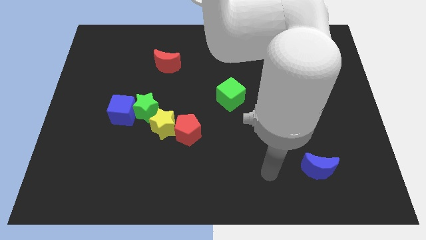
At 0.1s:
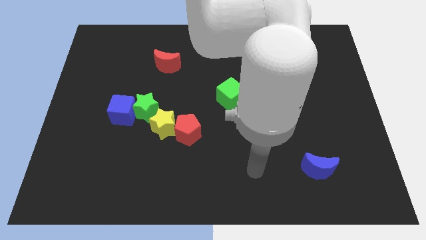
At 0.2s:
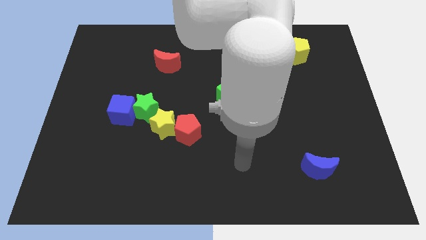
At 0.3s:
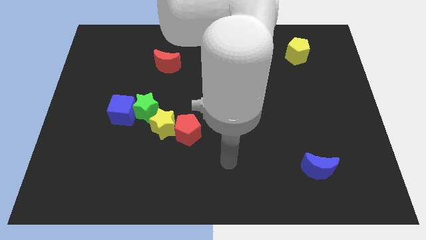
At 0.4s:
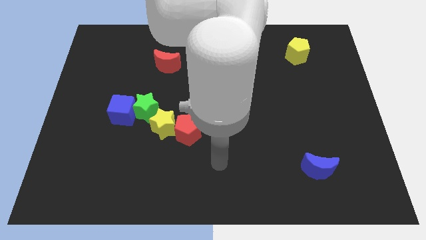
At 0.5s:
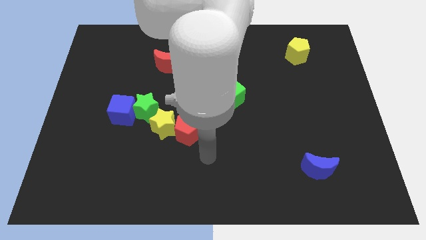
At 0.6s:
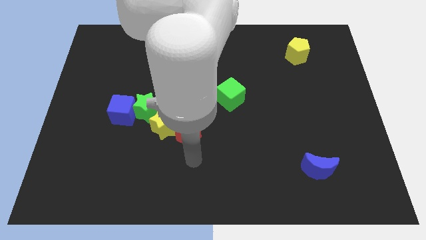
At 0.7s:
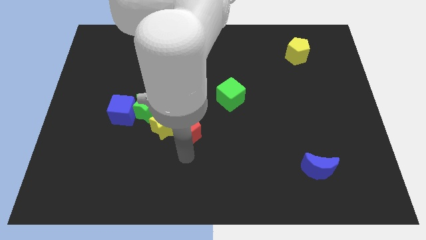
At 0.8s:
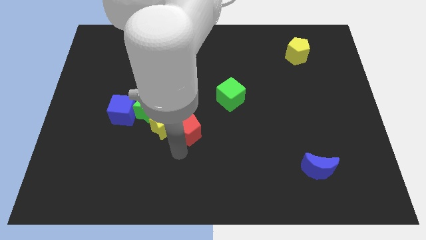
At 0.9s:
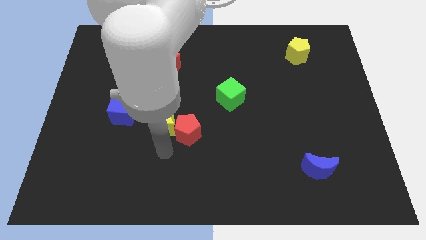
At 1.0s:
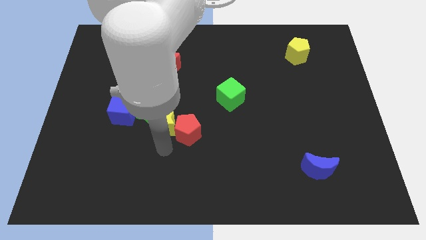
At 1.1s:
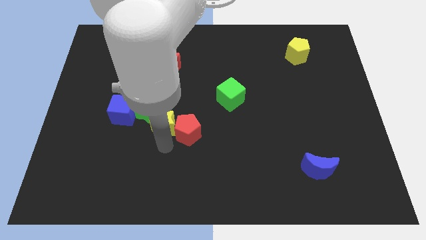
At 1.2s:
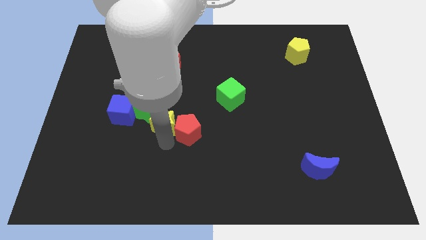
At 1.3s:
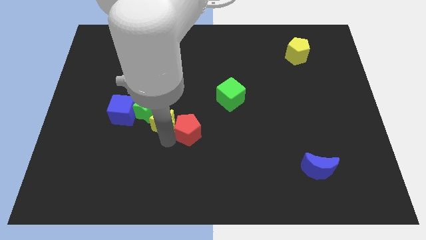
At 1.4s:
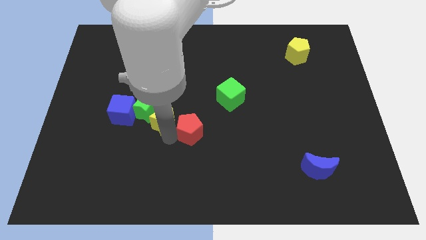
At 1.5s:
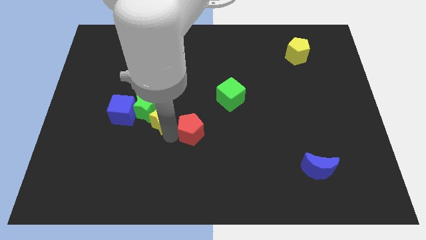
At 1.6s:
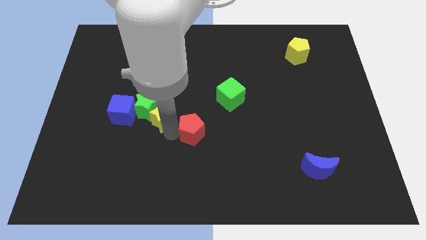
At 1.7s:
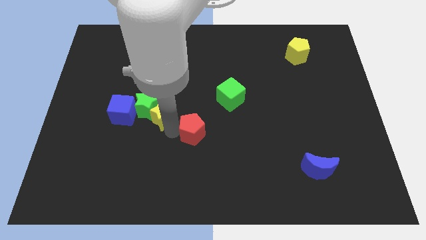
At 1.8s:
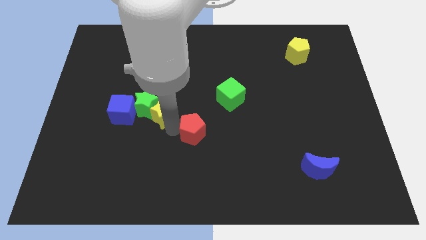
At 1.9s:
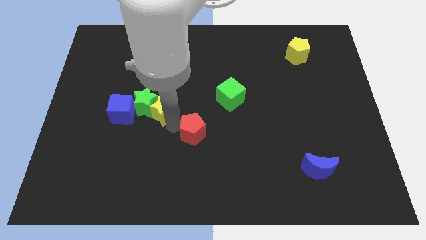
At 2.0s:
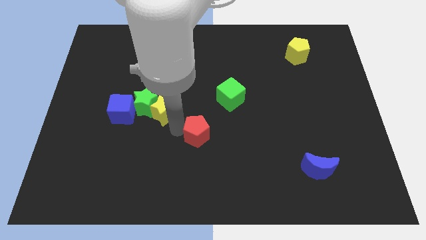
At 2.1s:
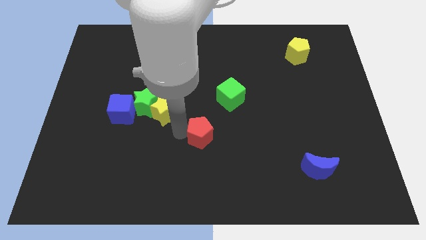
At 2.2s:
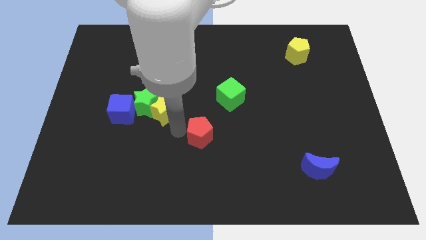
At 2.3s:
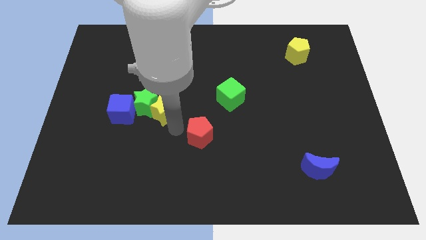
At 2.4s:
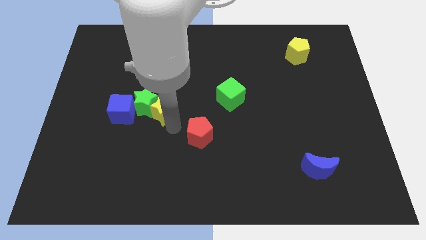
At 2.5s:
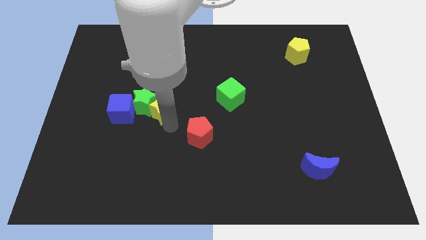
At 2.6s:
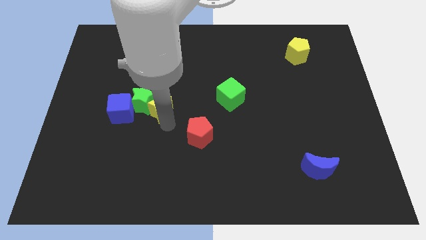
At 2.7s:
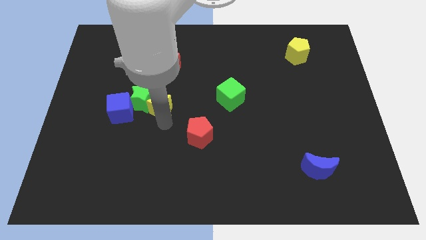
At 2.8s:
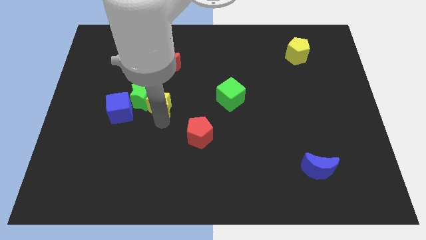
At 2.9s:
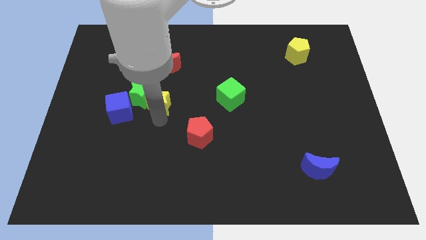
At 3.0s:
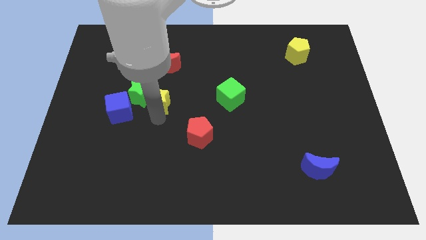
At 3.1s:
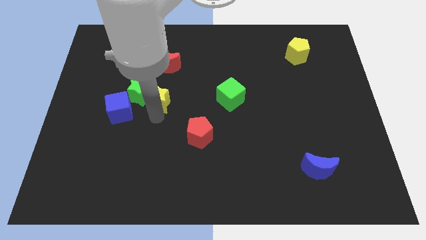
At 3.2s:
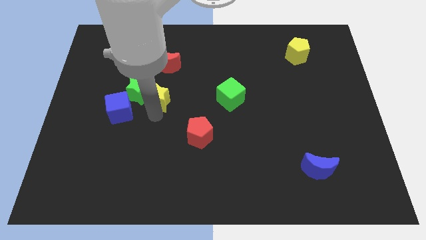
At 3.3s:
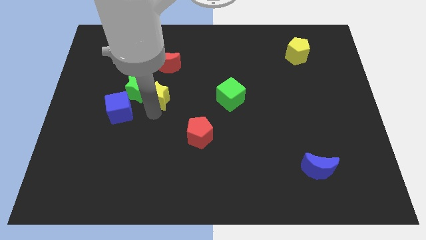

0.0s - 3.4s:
move the yellow star somewhat diagonally up and to the left

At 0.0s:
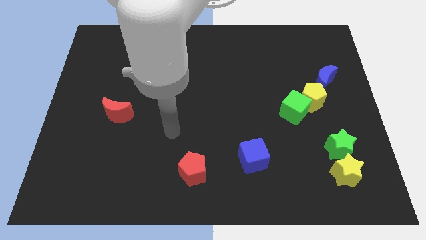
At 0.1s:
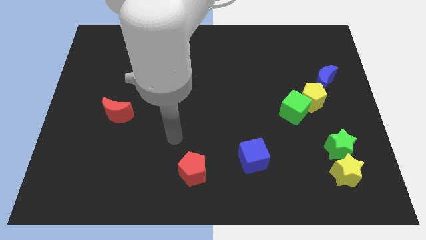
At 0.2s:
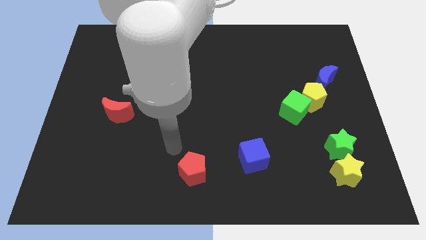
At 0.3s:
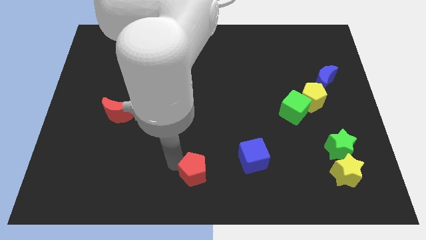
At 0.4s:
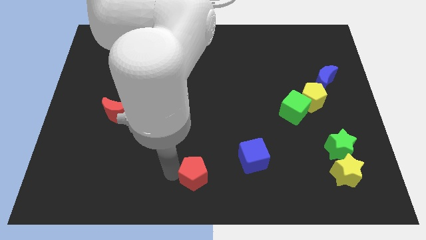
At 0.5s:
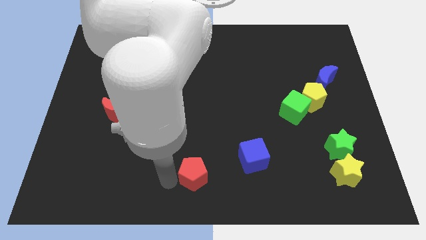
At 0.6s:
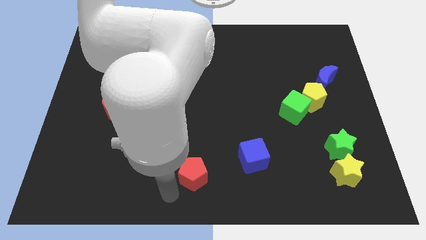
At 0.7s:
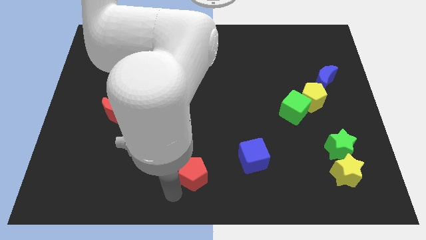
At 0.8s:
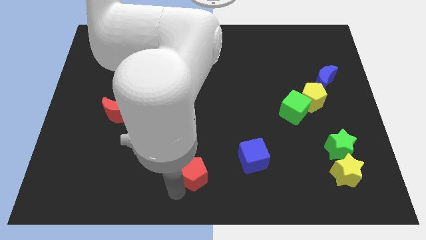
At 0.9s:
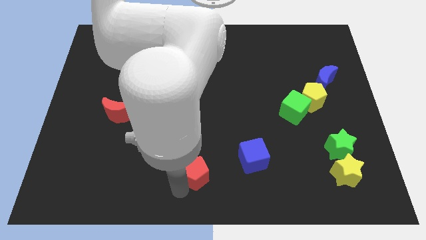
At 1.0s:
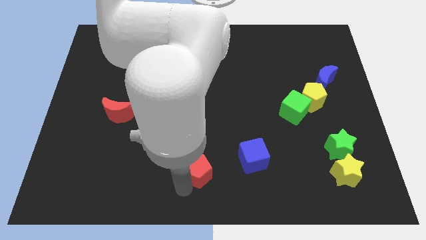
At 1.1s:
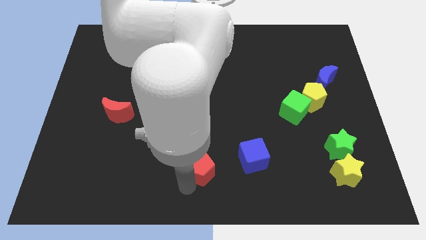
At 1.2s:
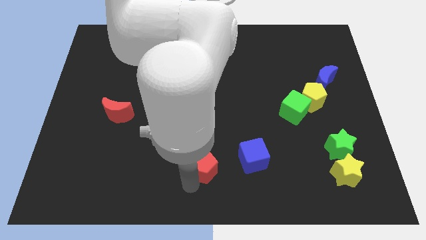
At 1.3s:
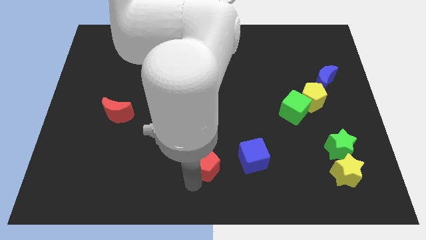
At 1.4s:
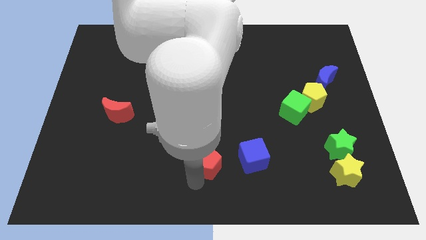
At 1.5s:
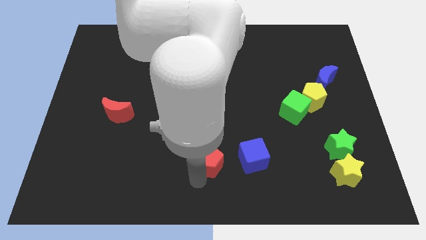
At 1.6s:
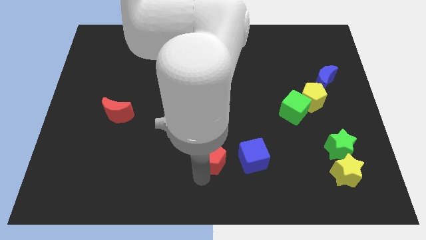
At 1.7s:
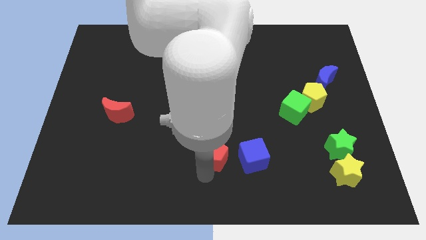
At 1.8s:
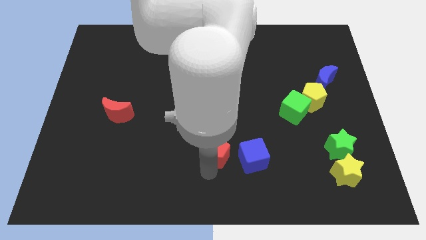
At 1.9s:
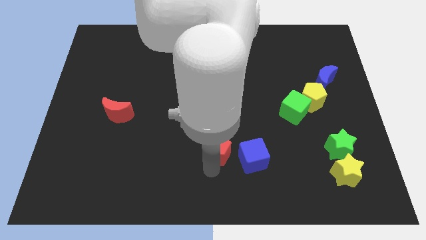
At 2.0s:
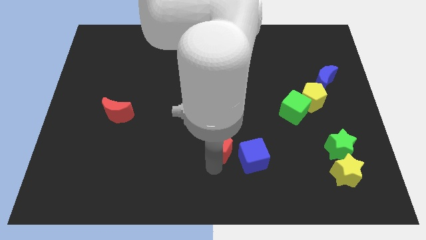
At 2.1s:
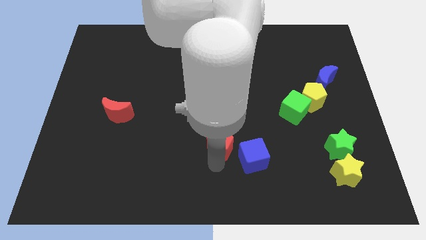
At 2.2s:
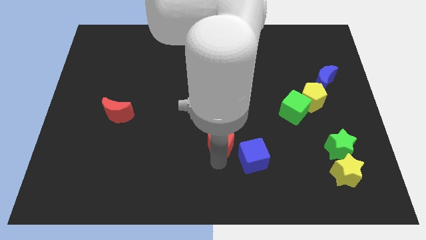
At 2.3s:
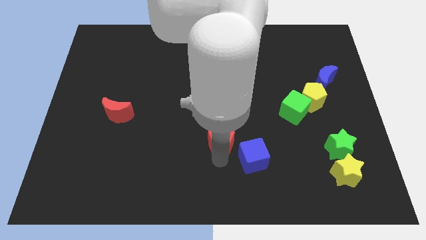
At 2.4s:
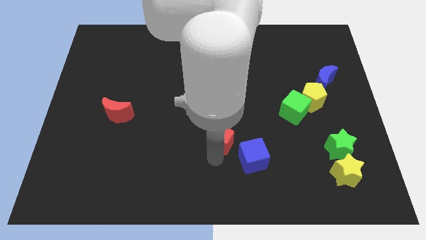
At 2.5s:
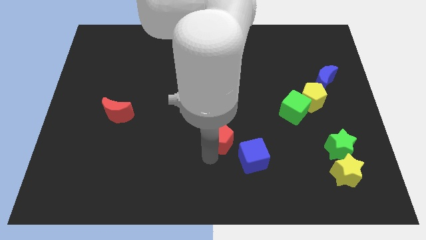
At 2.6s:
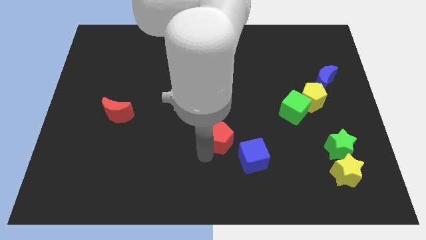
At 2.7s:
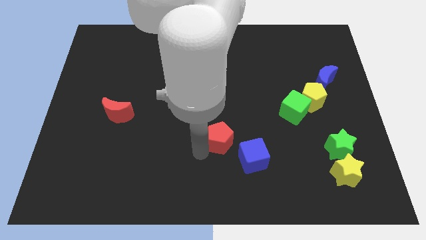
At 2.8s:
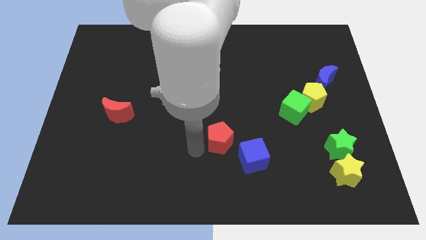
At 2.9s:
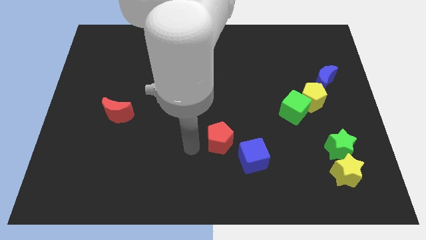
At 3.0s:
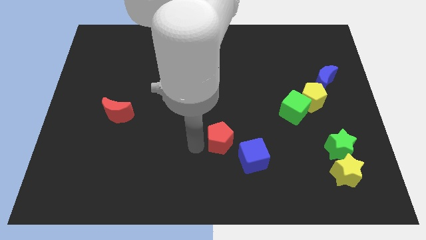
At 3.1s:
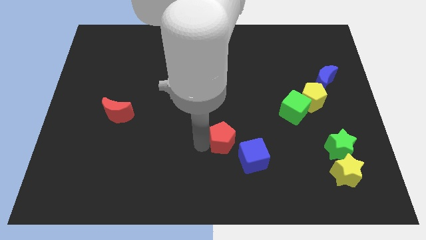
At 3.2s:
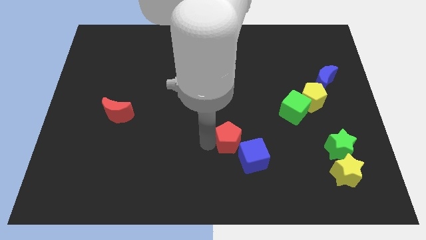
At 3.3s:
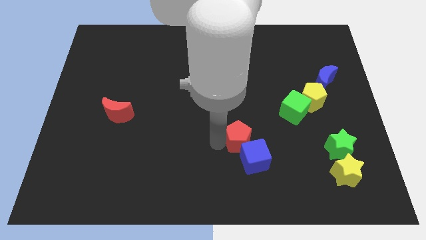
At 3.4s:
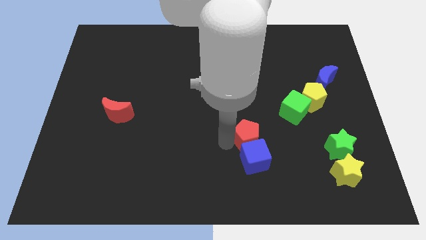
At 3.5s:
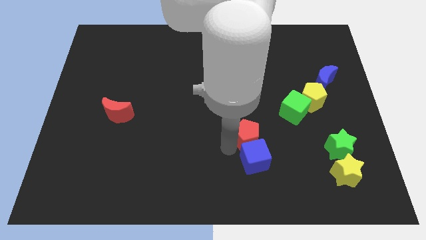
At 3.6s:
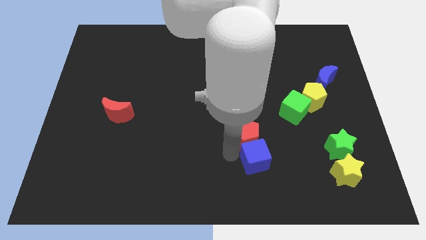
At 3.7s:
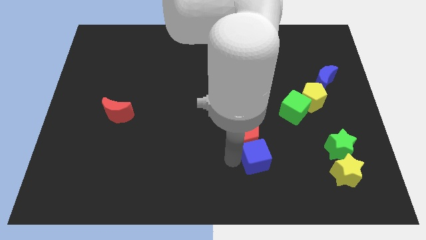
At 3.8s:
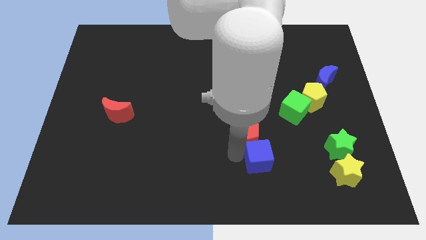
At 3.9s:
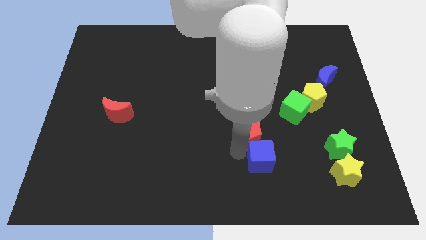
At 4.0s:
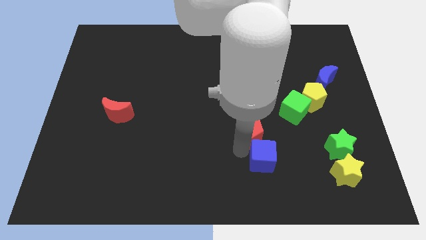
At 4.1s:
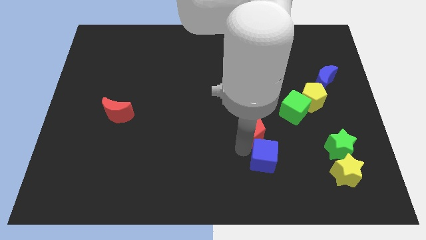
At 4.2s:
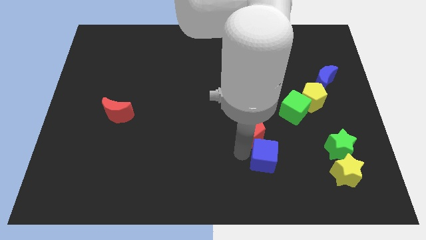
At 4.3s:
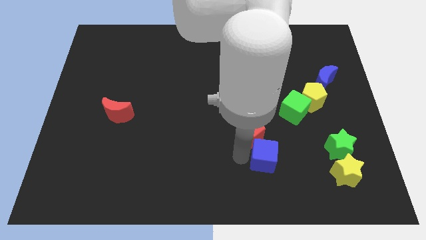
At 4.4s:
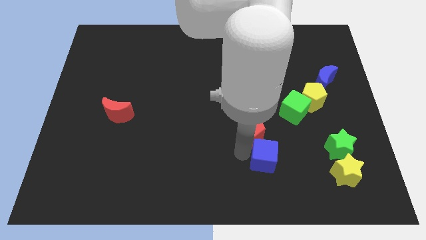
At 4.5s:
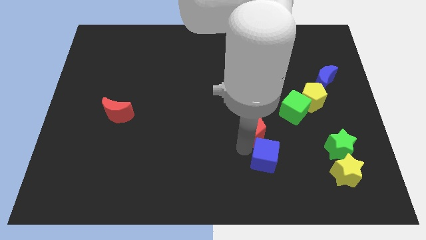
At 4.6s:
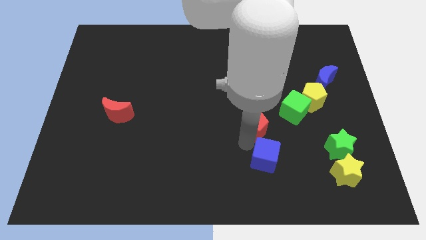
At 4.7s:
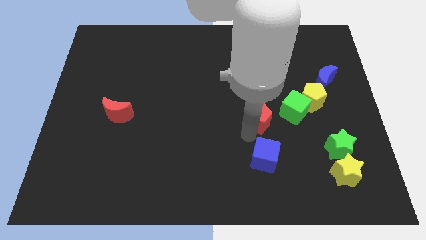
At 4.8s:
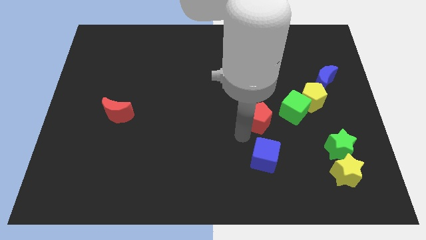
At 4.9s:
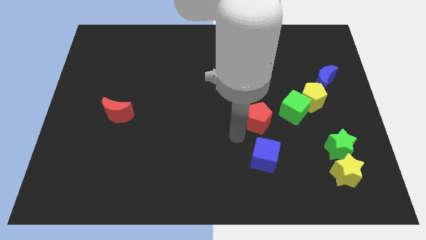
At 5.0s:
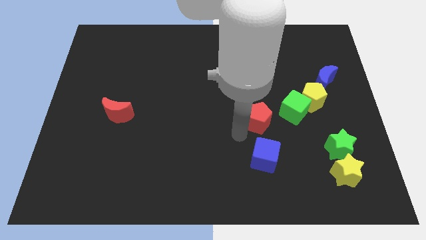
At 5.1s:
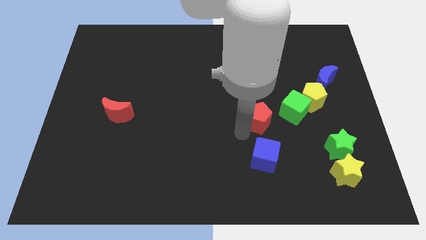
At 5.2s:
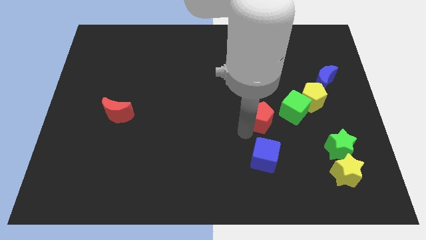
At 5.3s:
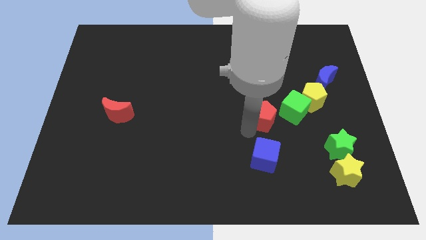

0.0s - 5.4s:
push the red pentagon up and then to the right
